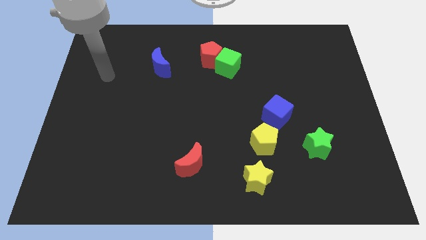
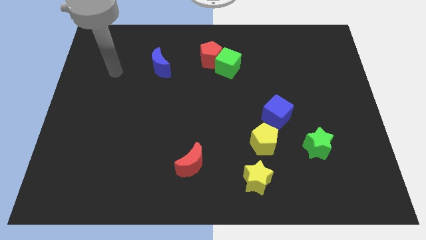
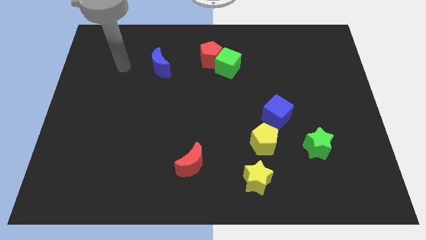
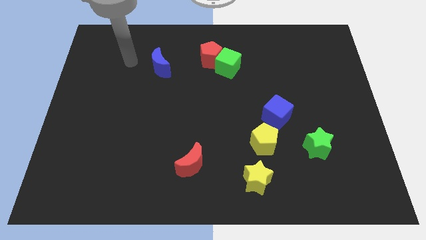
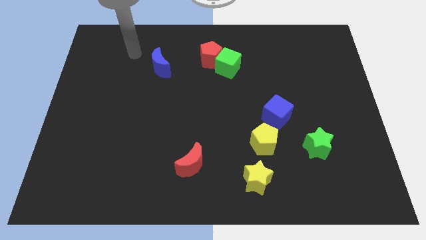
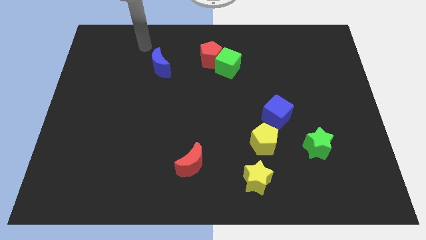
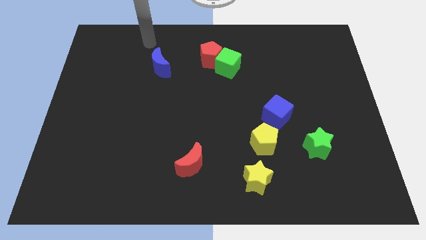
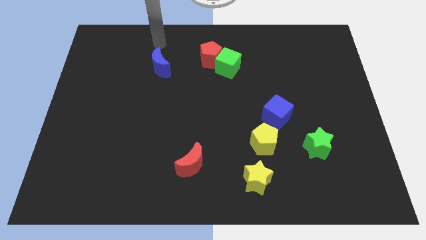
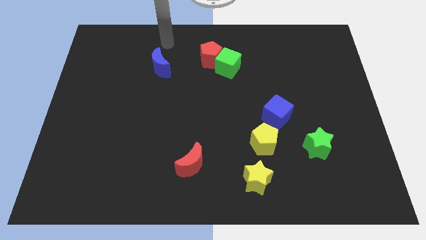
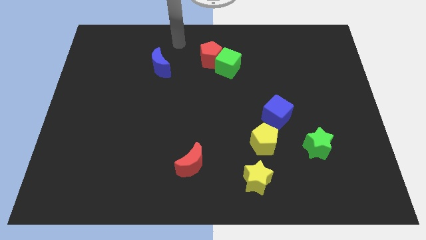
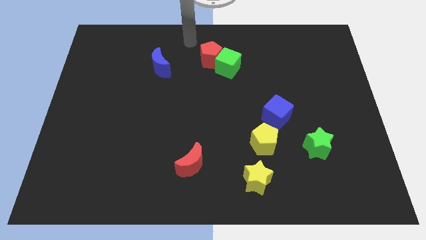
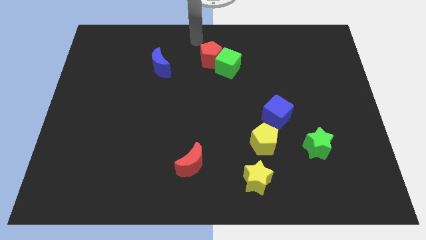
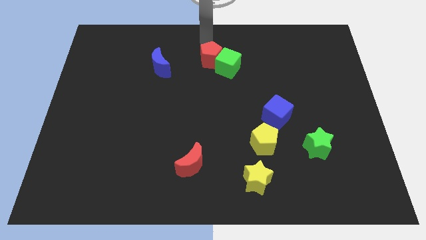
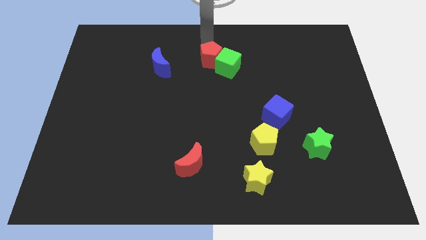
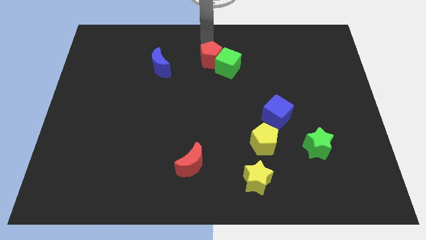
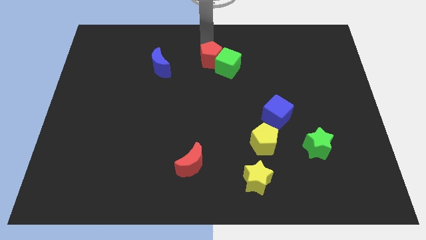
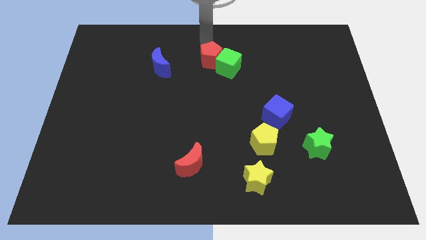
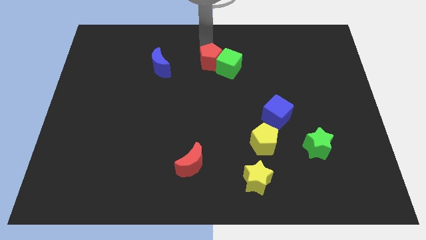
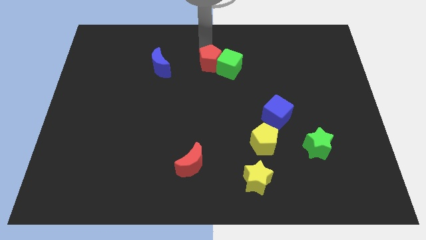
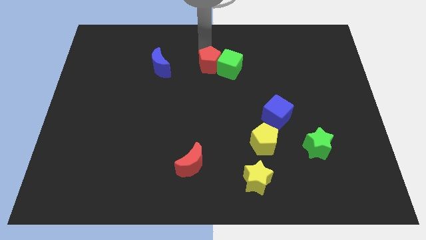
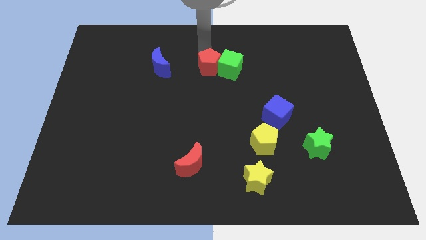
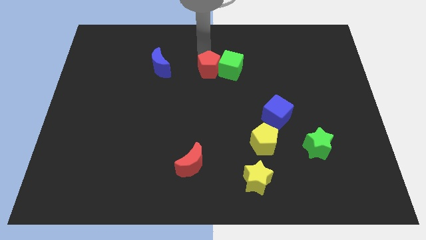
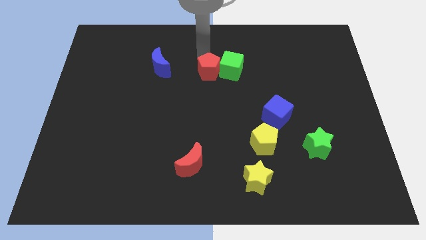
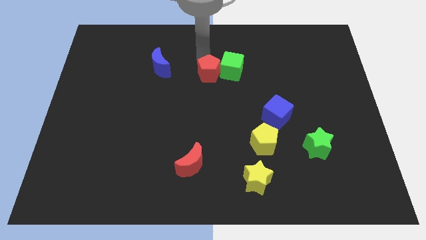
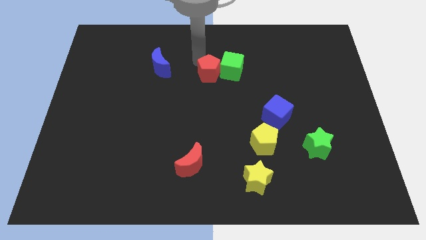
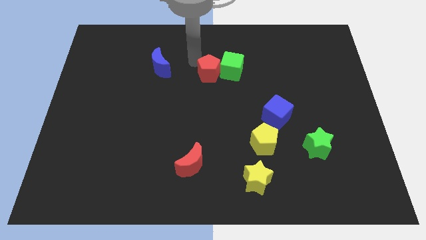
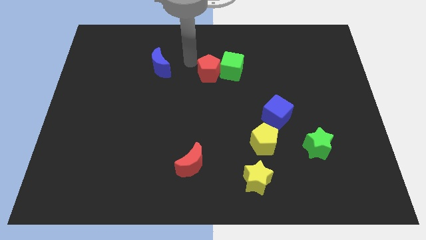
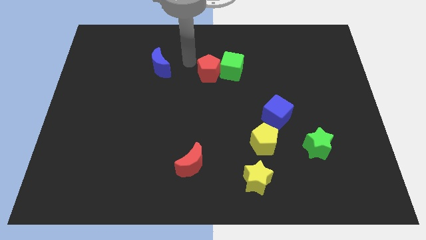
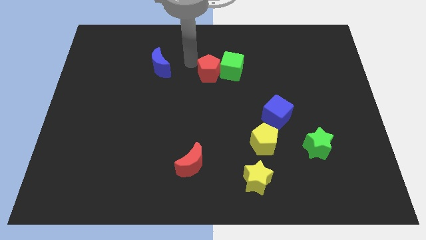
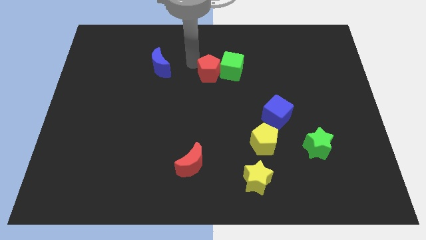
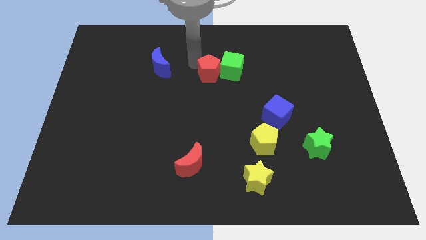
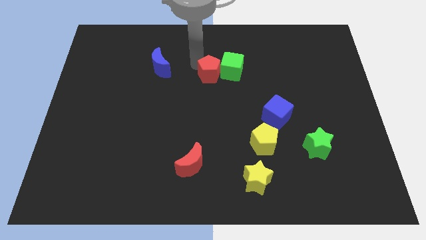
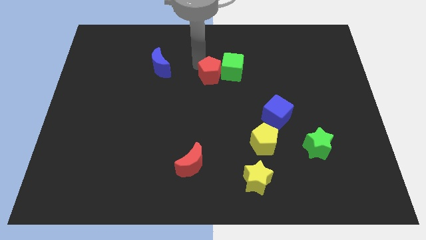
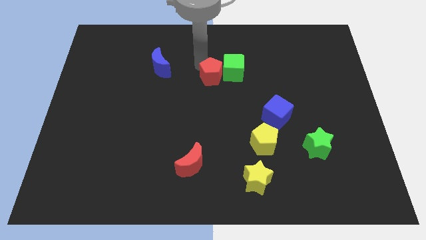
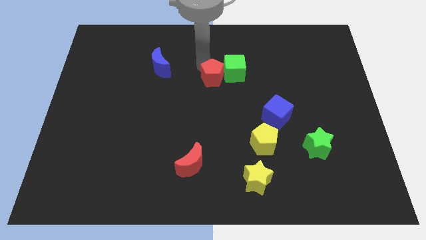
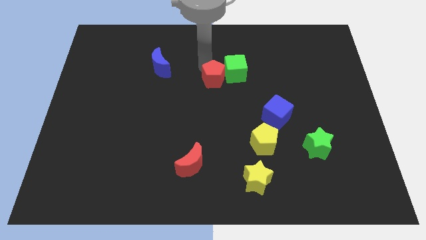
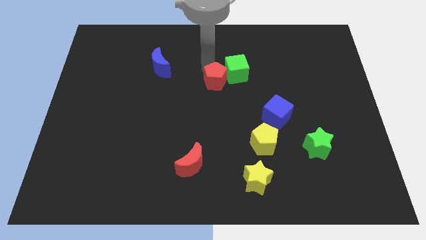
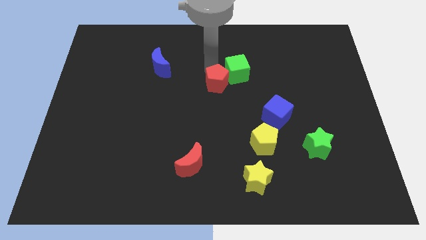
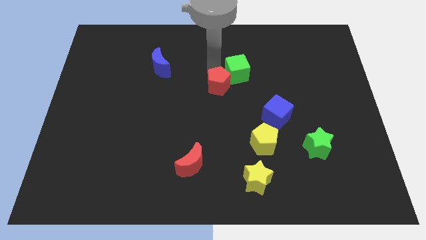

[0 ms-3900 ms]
slide the red pentagon somewhat down and right diagonally

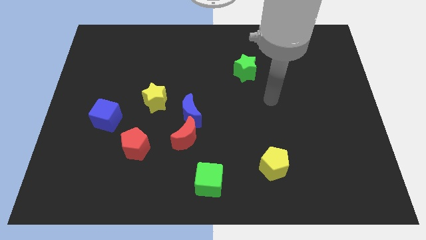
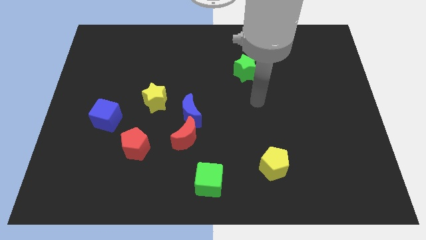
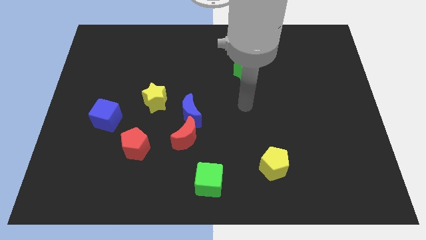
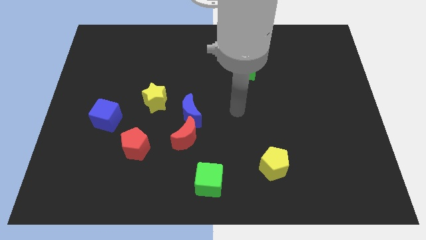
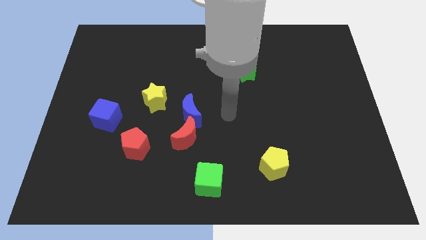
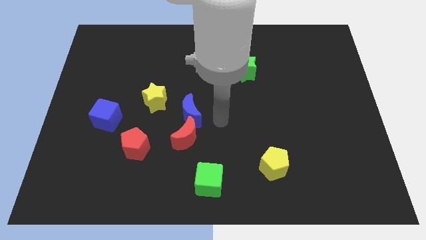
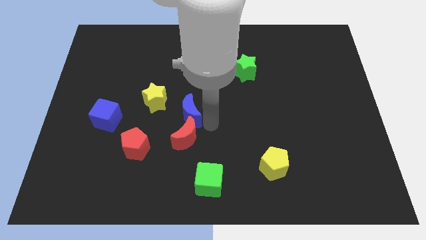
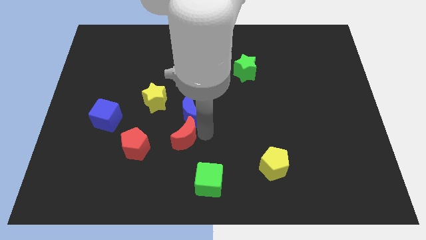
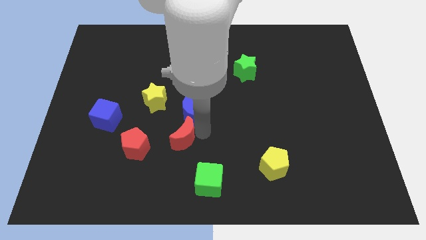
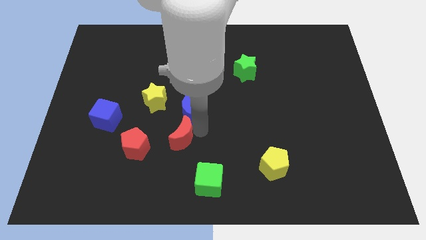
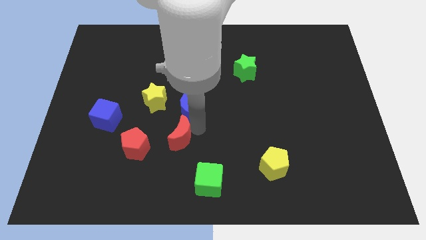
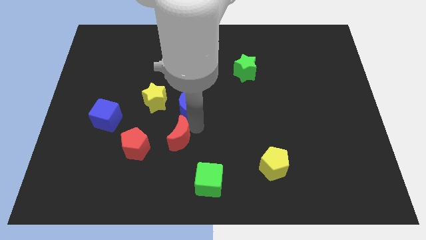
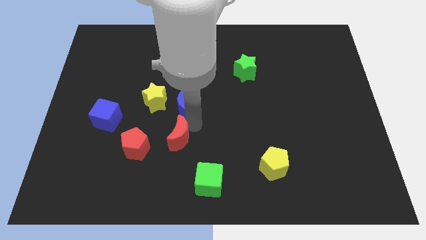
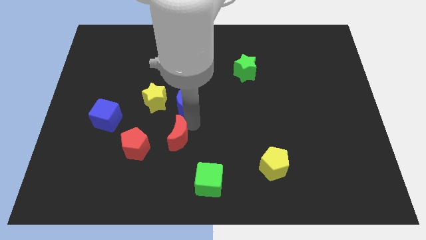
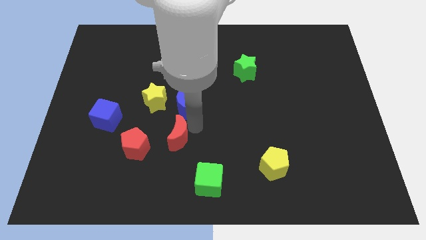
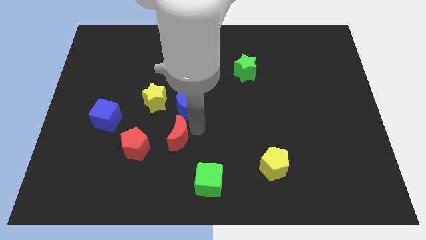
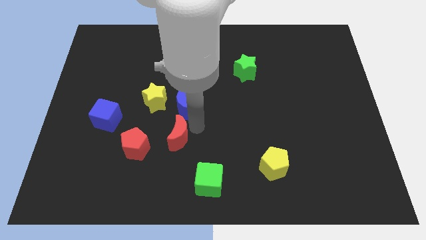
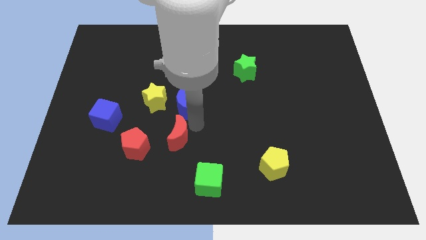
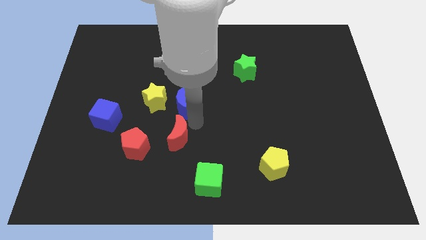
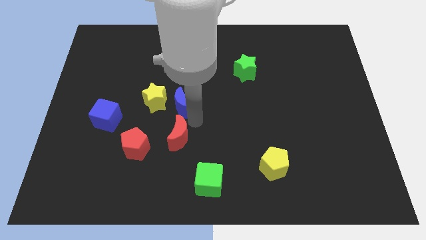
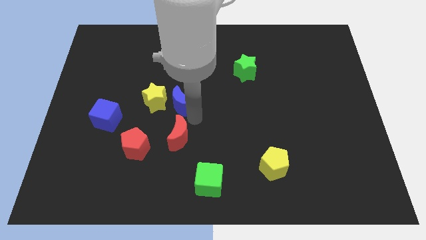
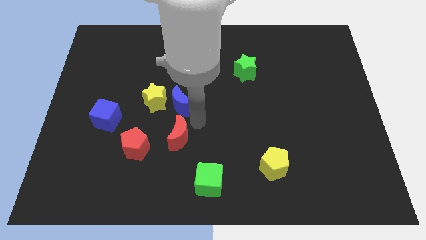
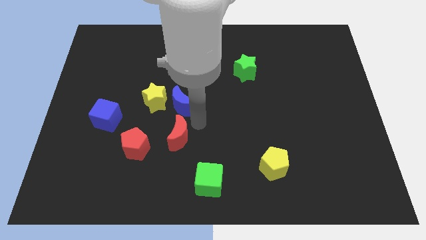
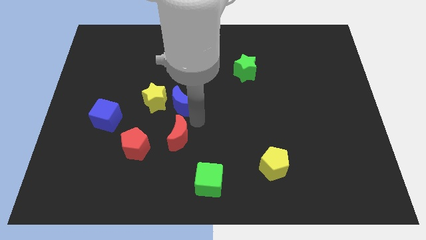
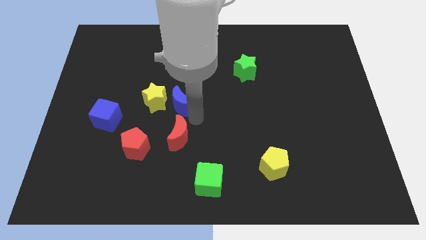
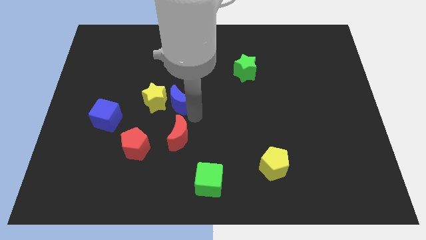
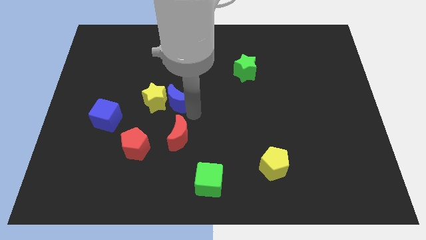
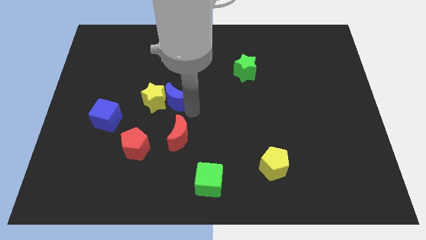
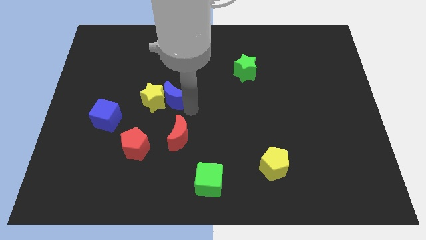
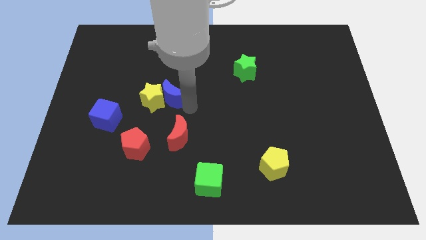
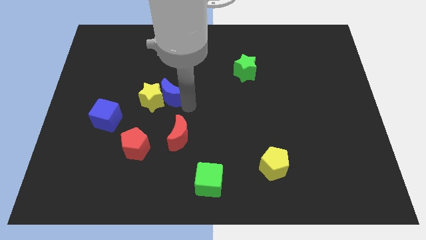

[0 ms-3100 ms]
slide the blue moon upwards and to the left diagonally a bit

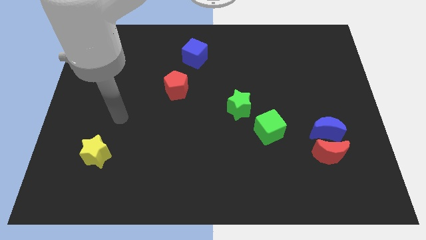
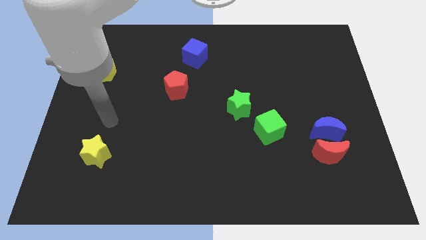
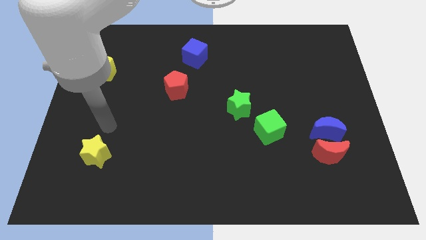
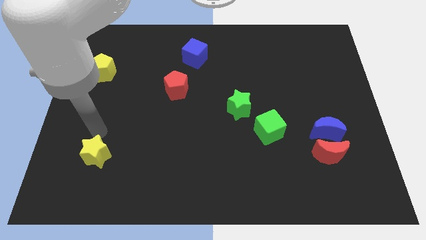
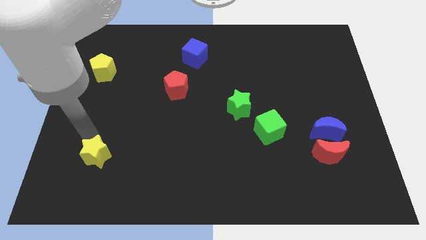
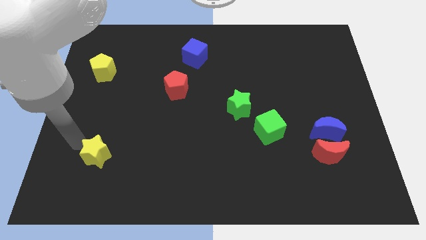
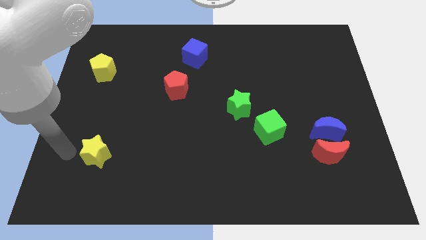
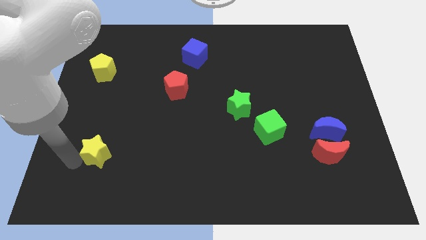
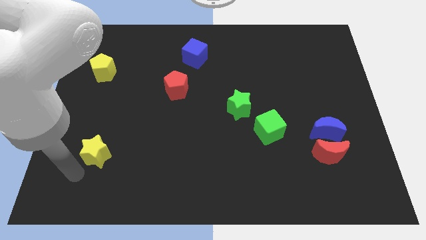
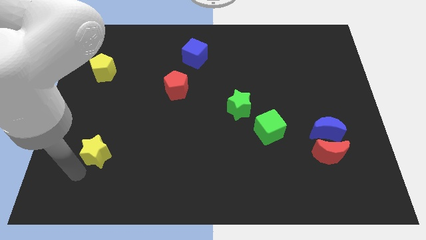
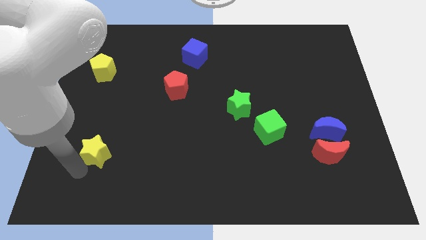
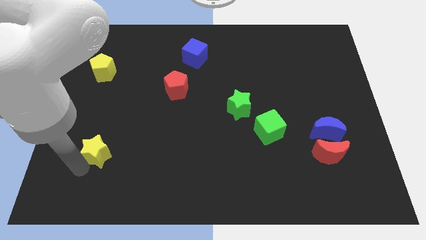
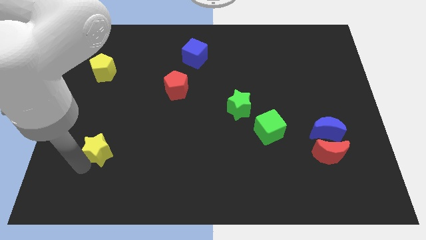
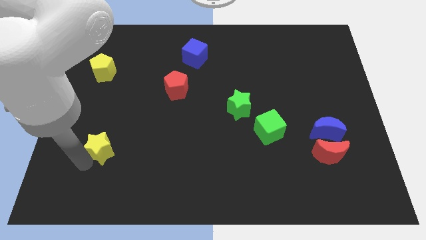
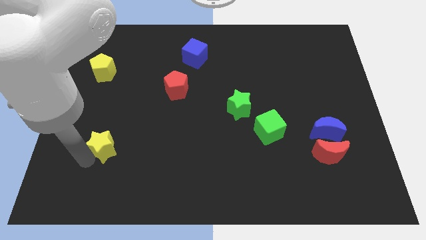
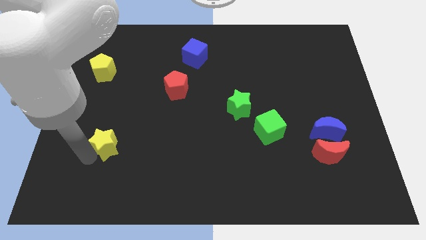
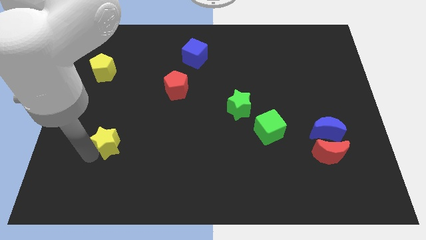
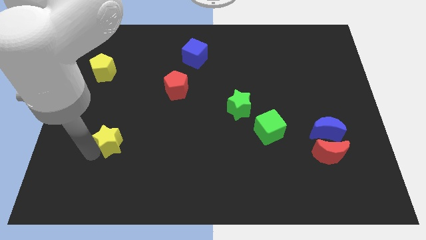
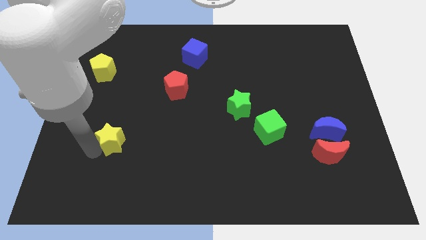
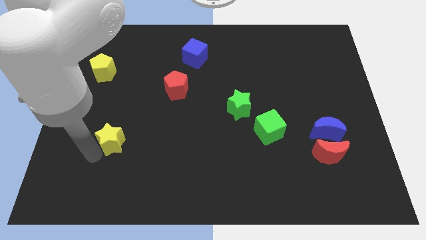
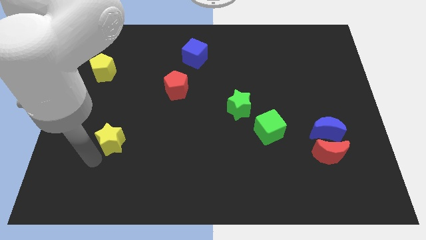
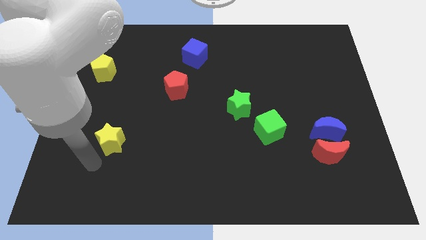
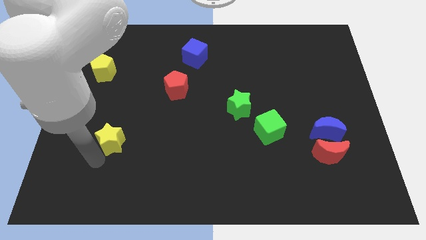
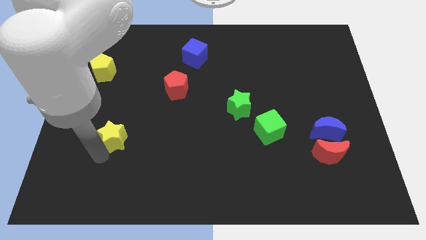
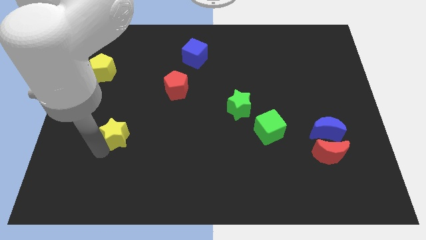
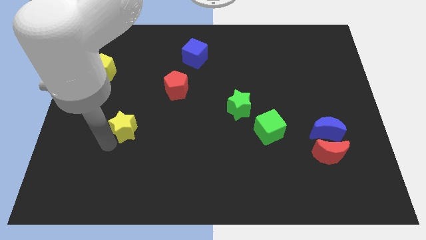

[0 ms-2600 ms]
move the yellow star upwards and to the right diagonally a little
